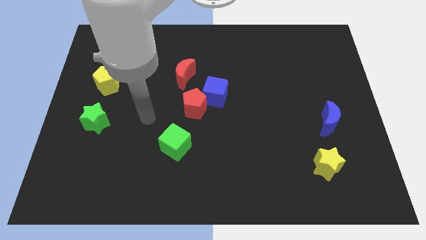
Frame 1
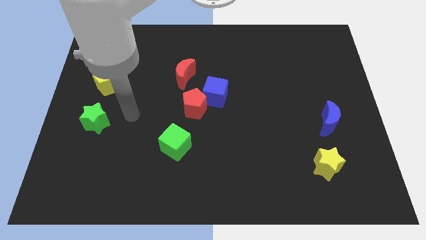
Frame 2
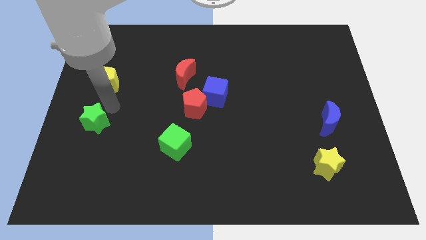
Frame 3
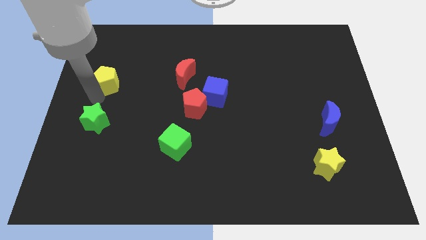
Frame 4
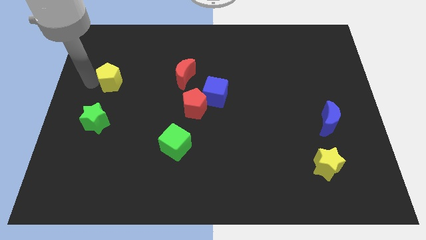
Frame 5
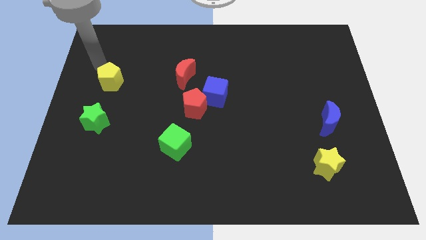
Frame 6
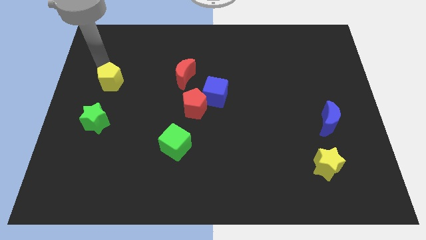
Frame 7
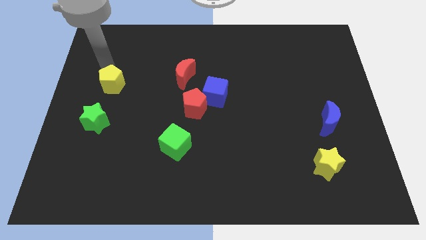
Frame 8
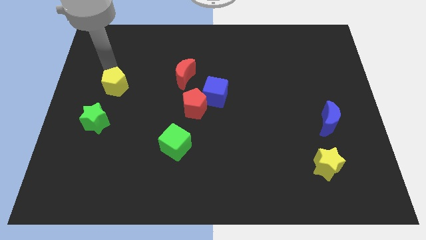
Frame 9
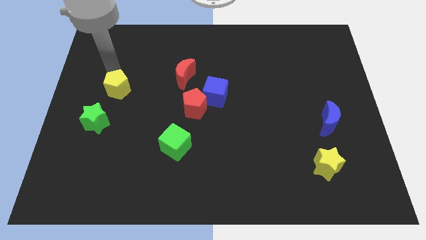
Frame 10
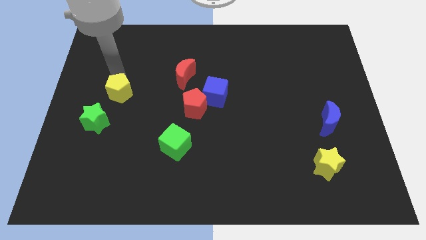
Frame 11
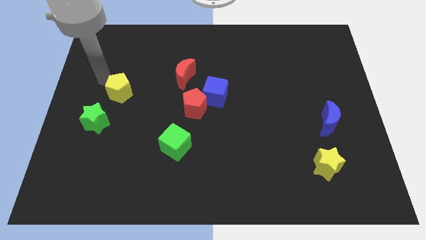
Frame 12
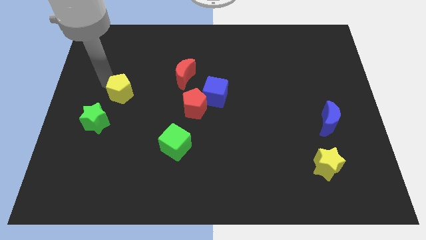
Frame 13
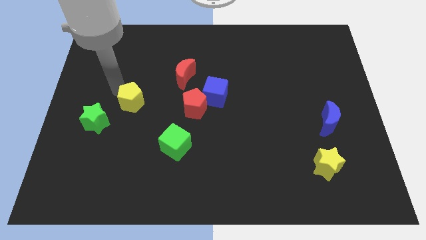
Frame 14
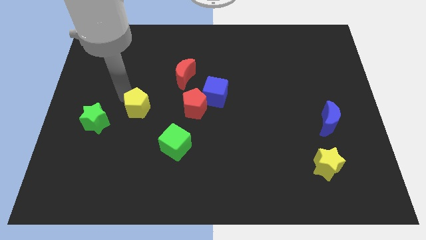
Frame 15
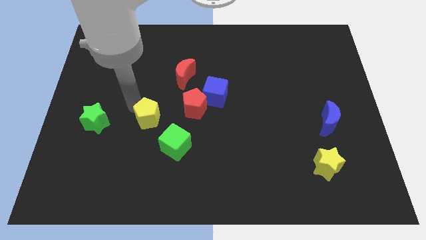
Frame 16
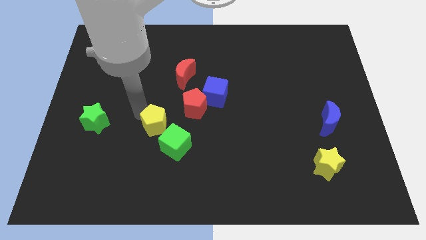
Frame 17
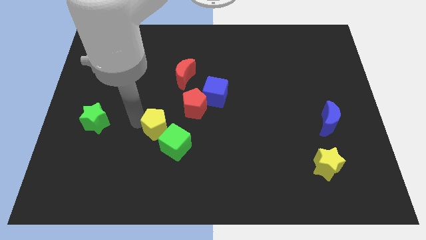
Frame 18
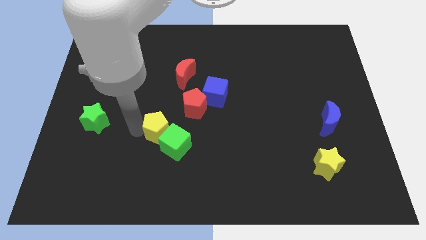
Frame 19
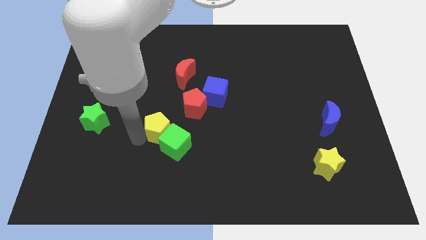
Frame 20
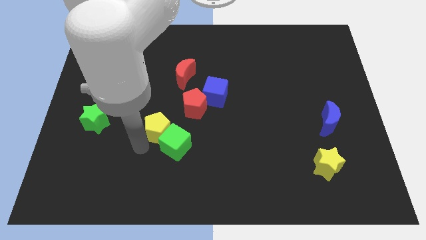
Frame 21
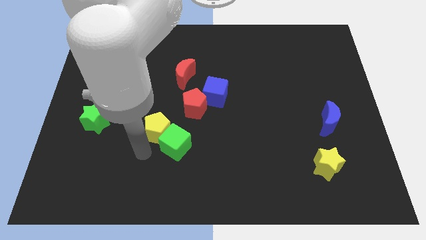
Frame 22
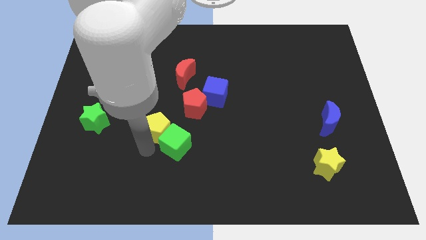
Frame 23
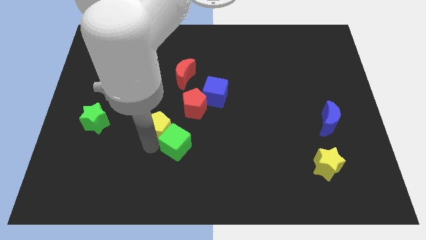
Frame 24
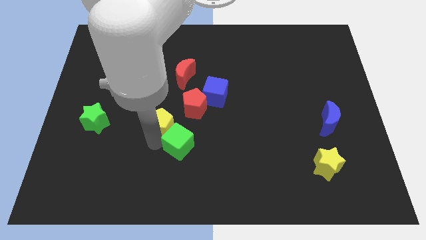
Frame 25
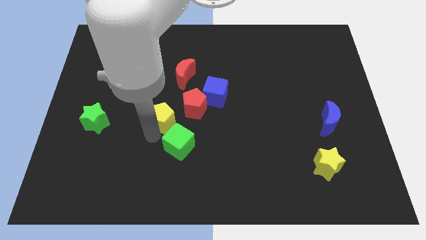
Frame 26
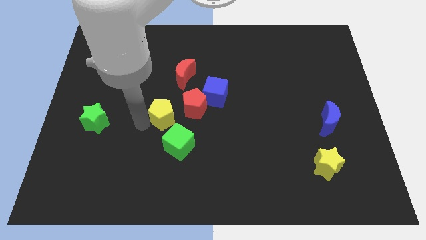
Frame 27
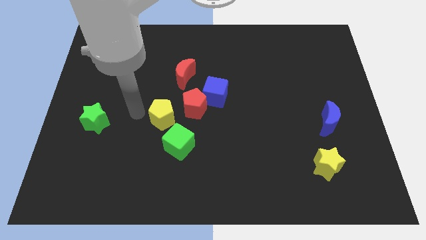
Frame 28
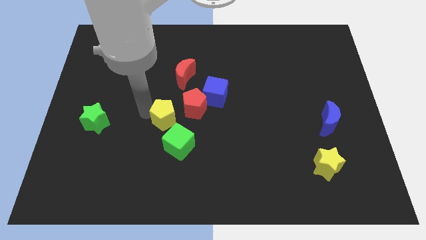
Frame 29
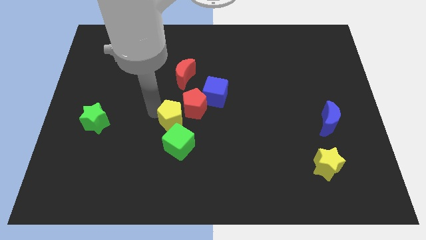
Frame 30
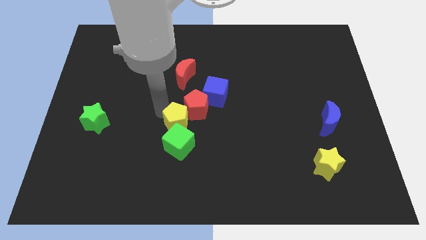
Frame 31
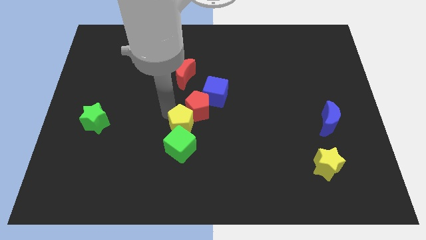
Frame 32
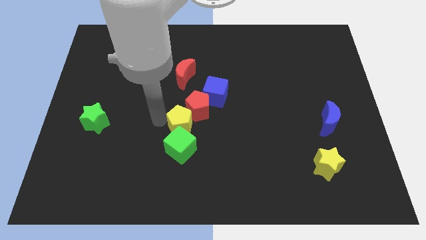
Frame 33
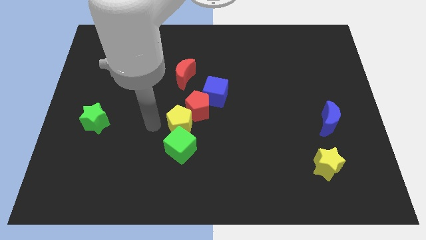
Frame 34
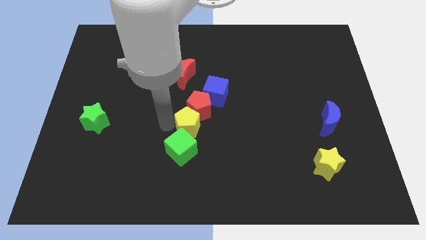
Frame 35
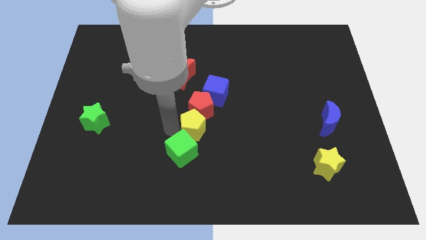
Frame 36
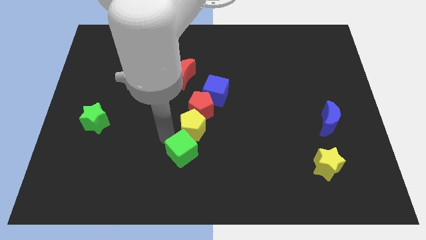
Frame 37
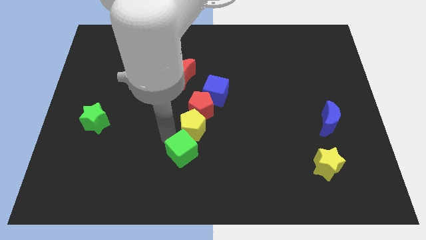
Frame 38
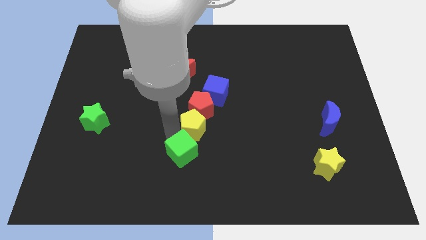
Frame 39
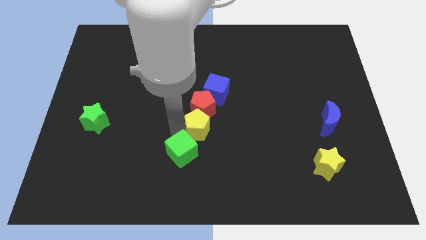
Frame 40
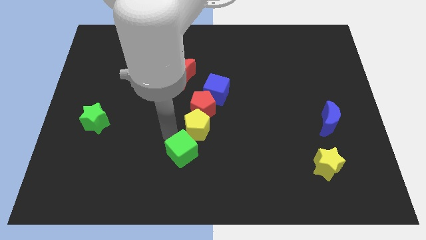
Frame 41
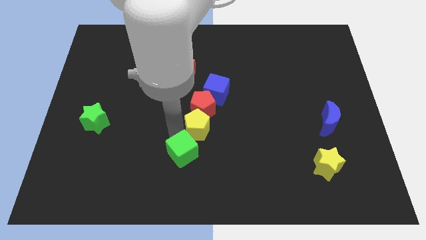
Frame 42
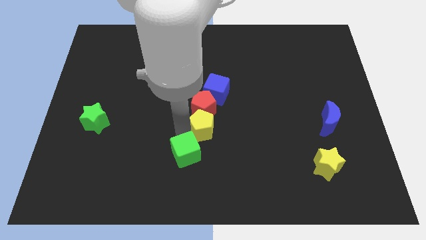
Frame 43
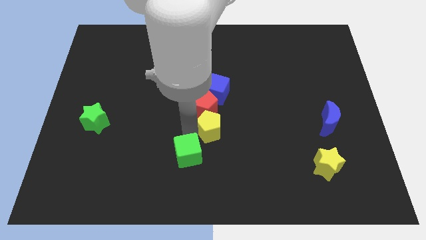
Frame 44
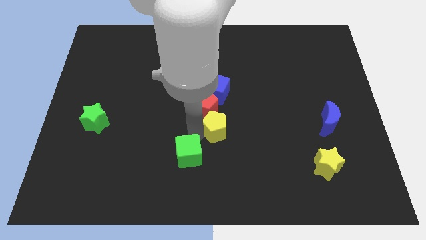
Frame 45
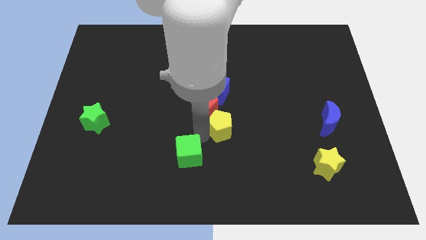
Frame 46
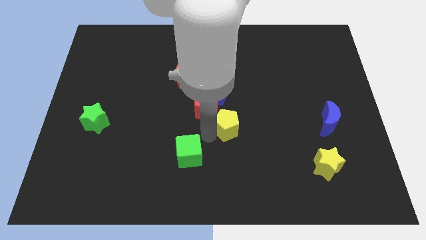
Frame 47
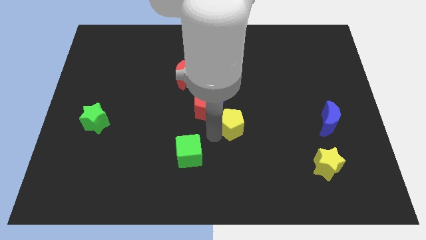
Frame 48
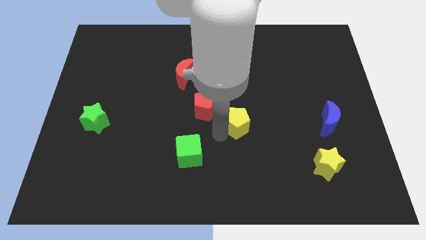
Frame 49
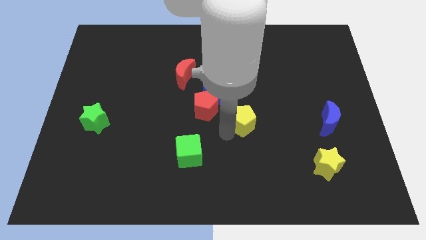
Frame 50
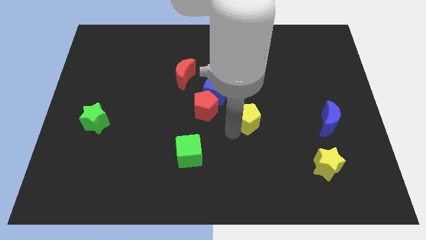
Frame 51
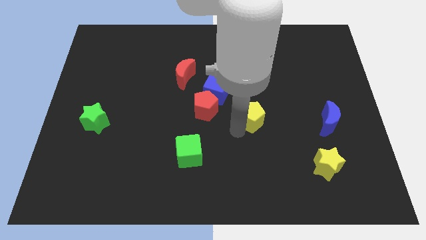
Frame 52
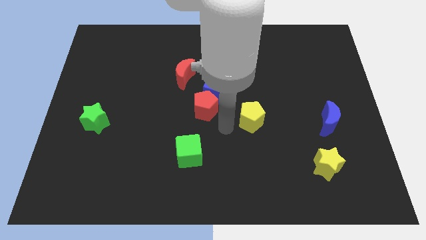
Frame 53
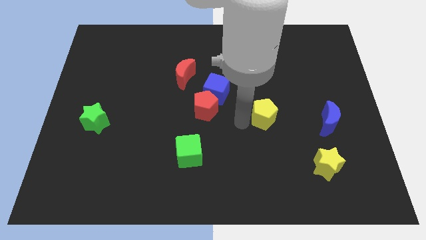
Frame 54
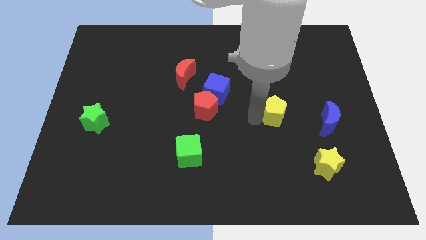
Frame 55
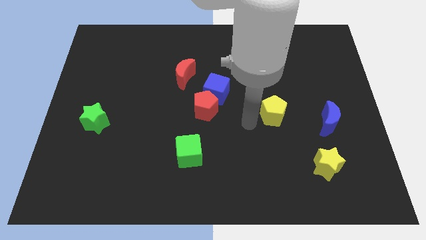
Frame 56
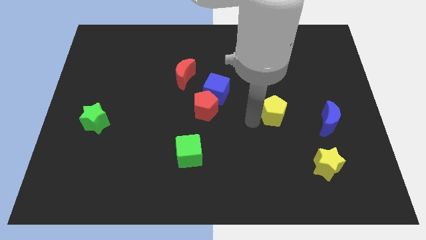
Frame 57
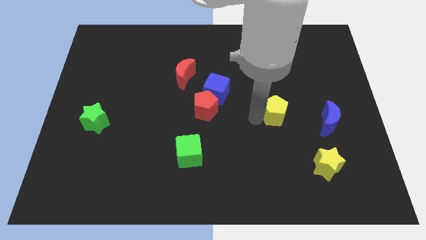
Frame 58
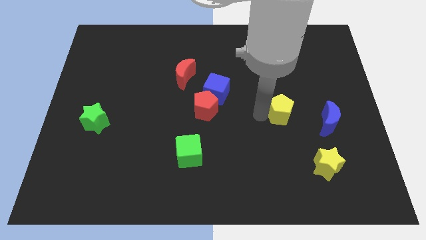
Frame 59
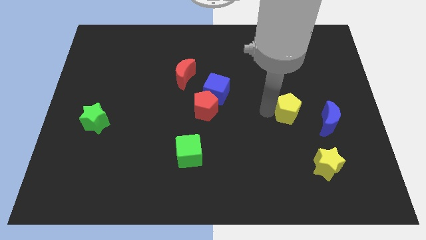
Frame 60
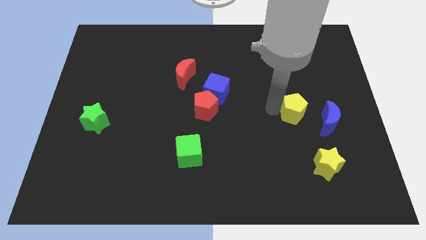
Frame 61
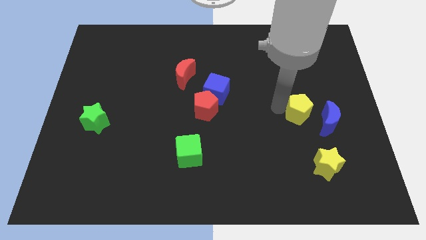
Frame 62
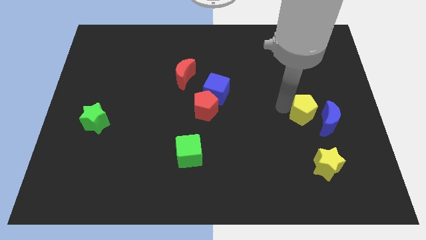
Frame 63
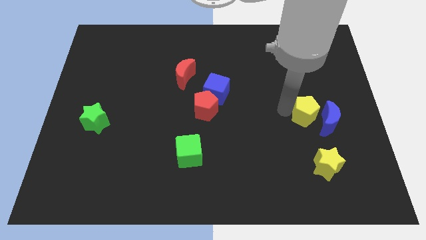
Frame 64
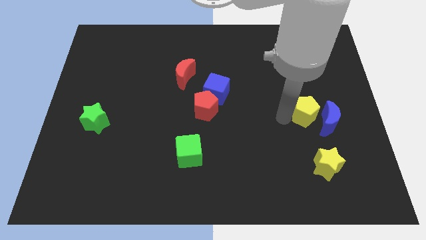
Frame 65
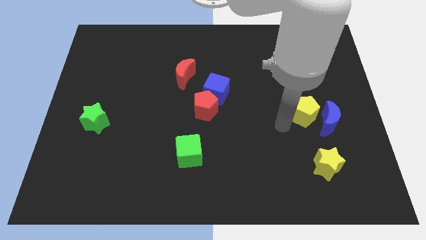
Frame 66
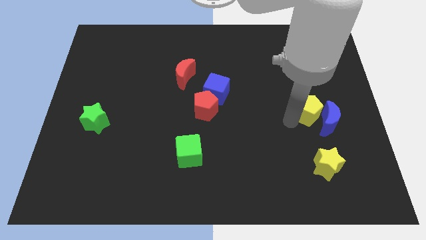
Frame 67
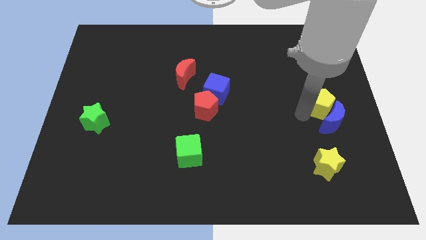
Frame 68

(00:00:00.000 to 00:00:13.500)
push the yellow pentagon to the right side

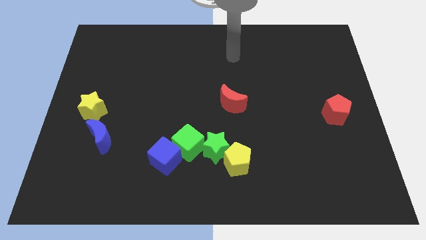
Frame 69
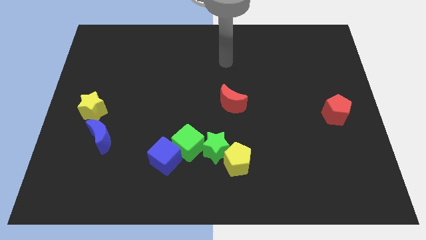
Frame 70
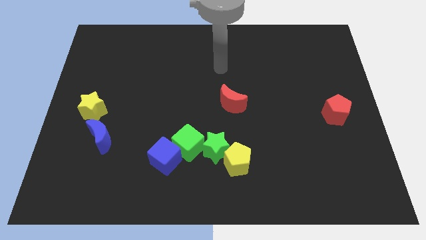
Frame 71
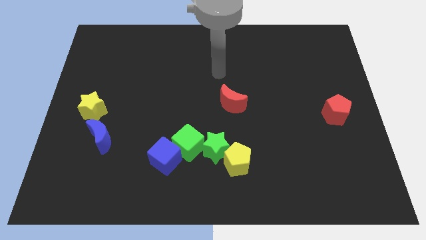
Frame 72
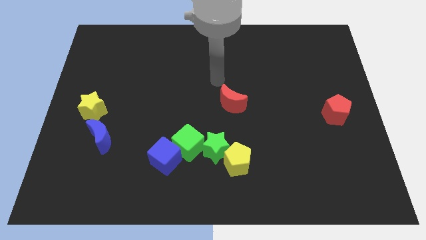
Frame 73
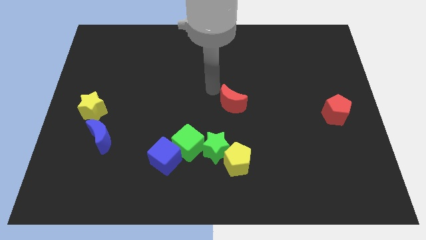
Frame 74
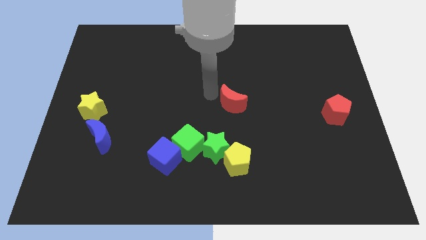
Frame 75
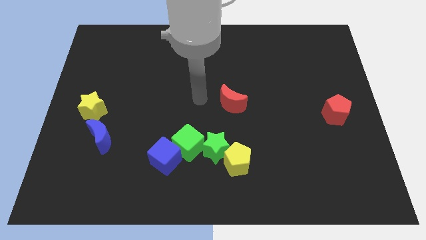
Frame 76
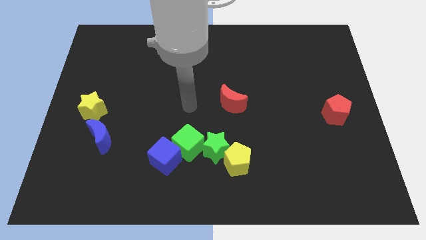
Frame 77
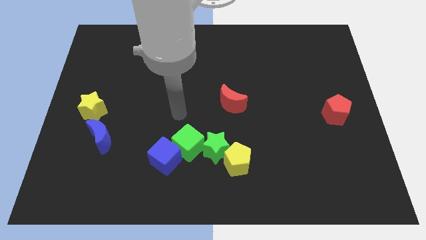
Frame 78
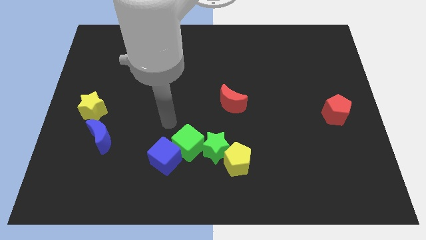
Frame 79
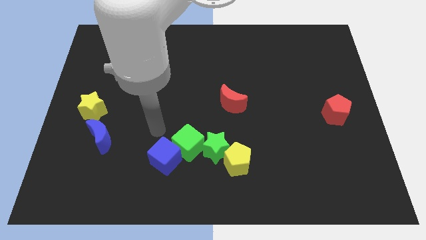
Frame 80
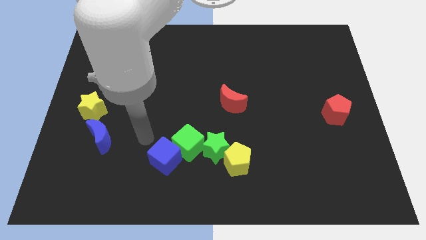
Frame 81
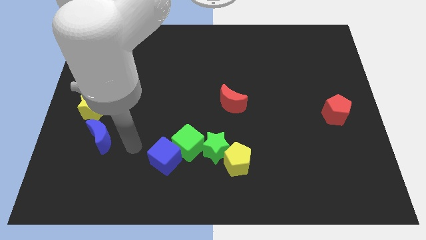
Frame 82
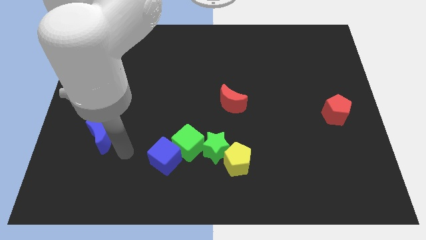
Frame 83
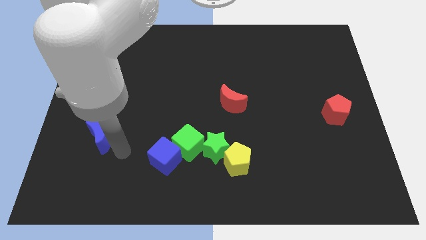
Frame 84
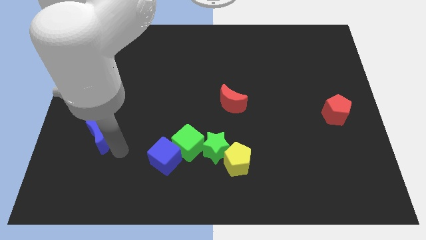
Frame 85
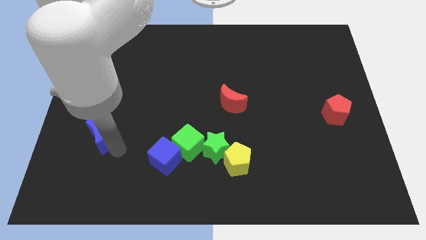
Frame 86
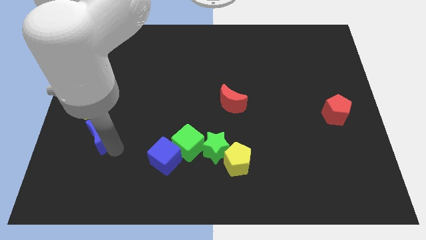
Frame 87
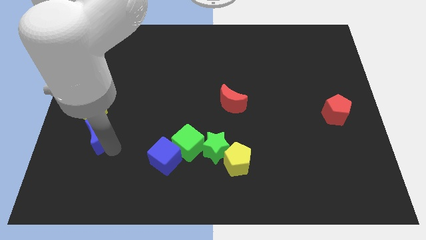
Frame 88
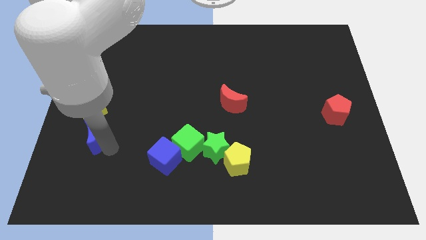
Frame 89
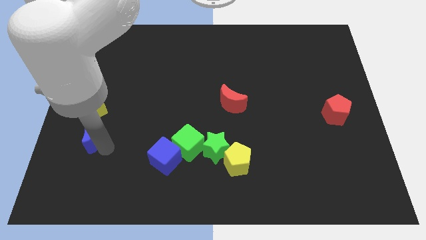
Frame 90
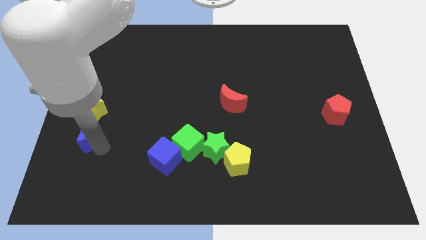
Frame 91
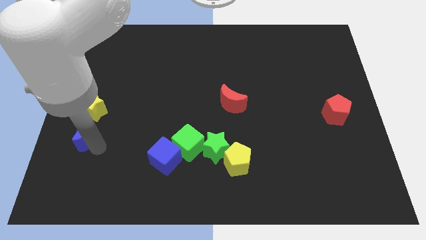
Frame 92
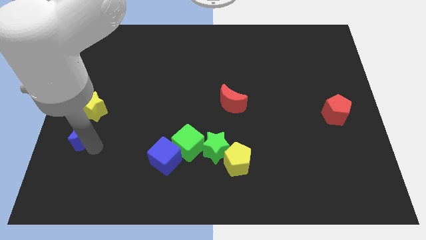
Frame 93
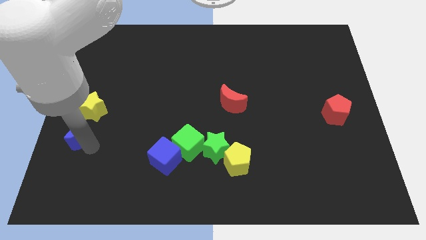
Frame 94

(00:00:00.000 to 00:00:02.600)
push the blue moon to the left side of the board
